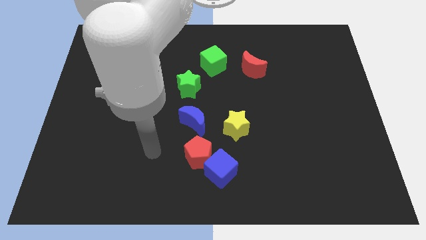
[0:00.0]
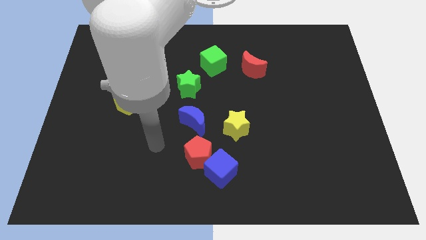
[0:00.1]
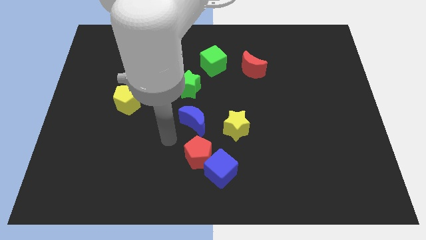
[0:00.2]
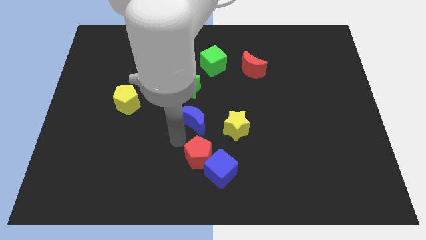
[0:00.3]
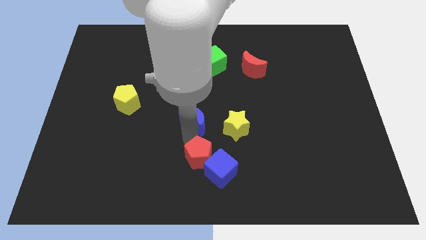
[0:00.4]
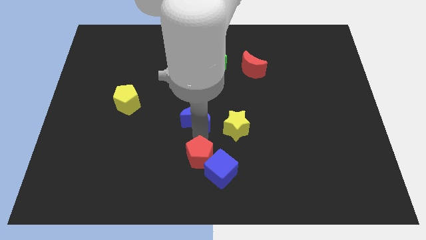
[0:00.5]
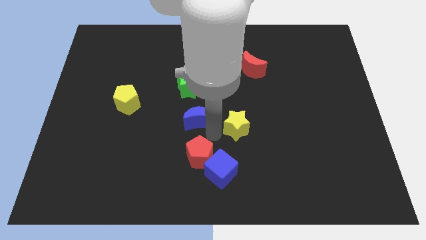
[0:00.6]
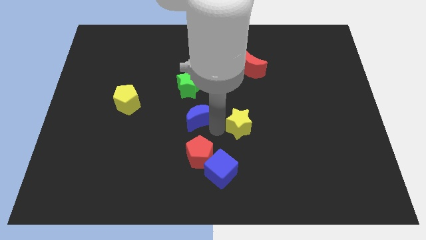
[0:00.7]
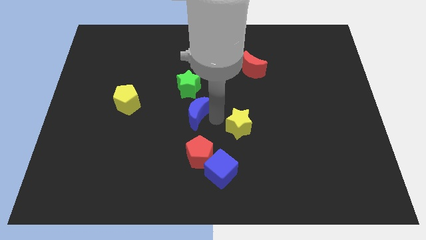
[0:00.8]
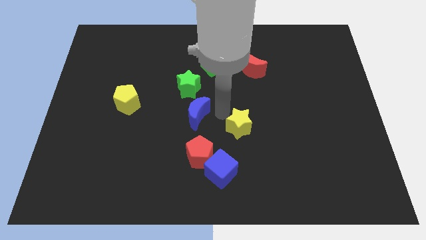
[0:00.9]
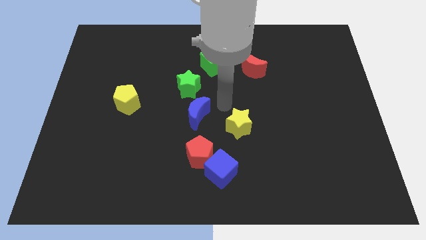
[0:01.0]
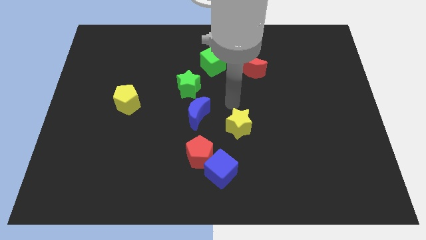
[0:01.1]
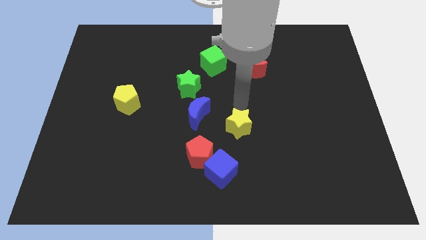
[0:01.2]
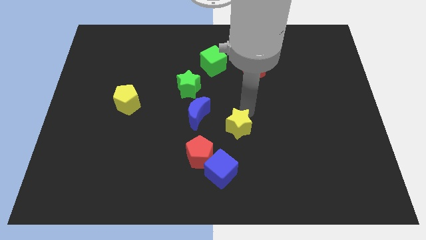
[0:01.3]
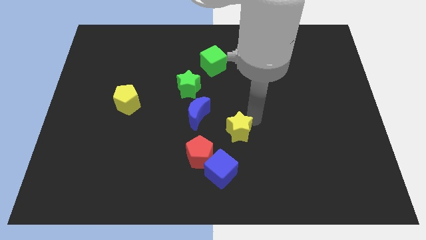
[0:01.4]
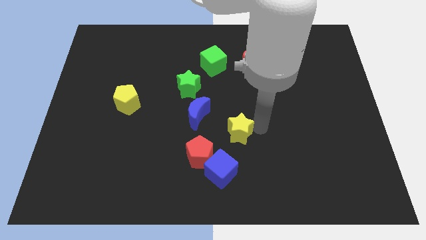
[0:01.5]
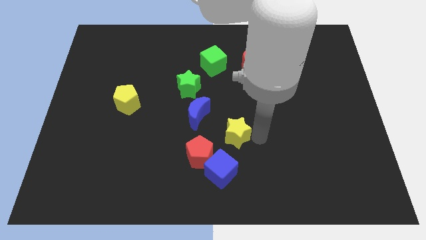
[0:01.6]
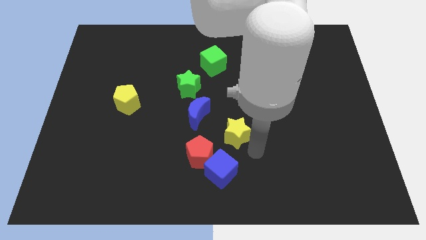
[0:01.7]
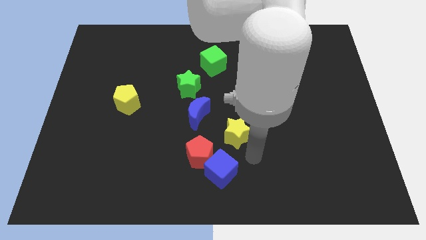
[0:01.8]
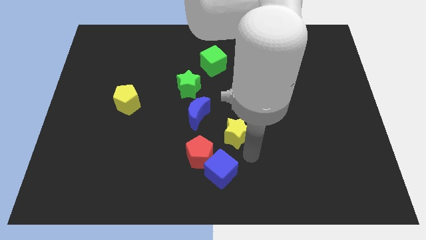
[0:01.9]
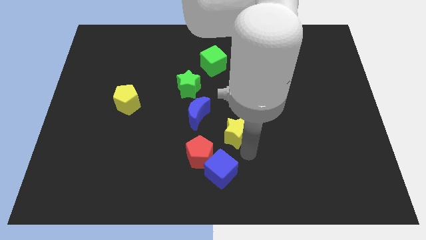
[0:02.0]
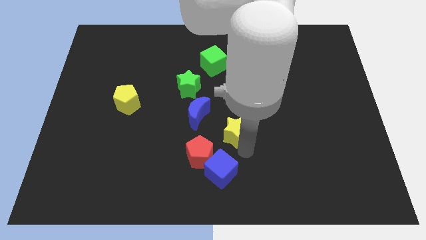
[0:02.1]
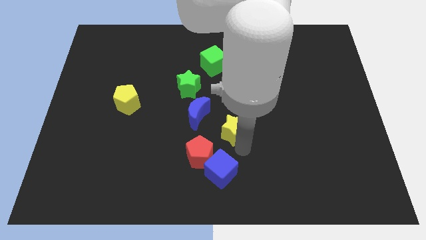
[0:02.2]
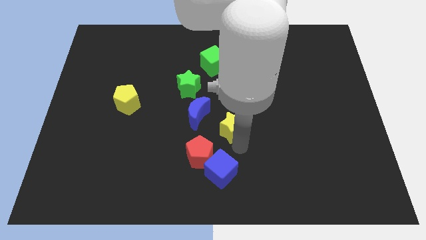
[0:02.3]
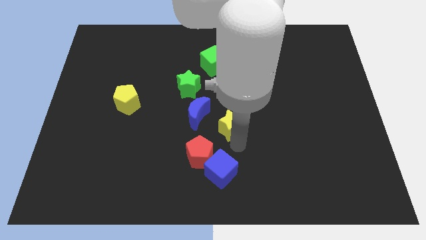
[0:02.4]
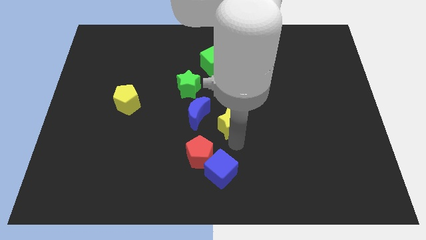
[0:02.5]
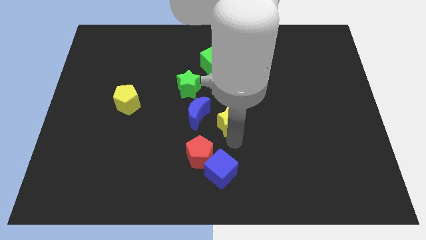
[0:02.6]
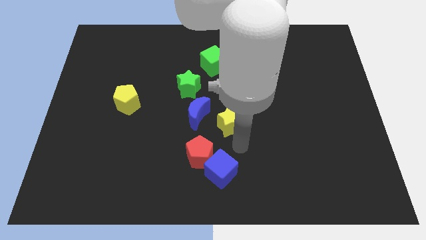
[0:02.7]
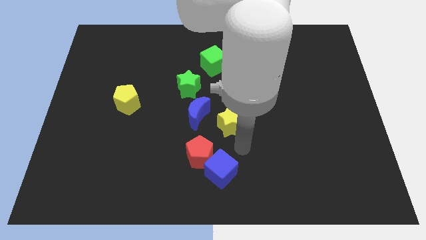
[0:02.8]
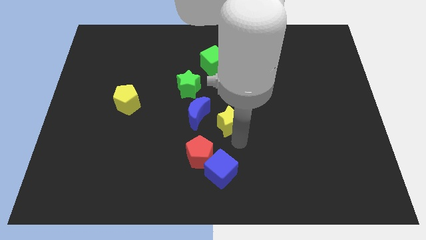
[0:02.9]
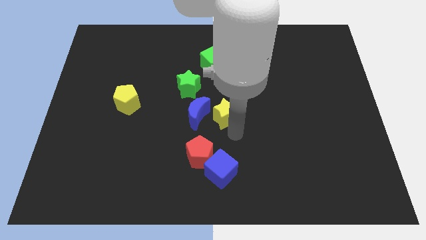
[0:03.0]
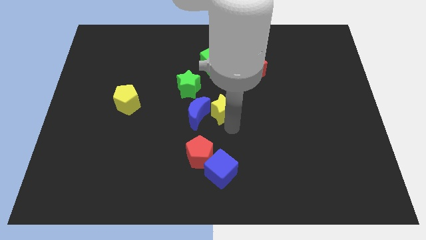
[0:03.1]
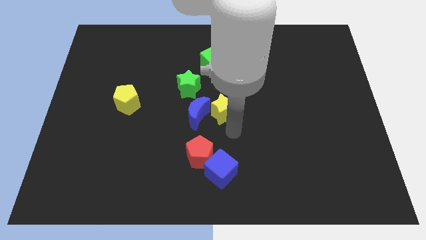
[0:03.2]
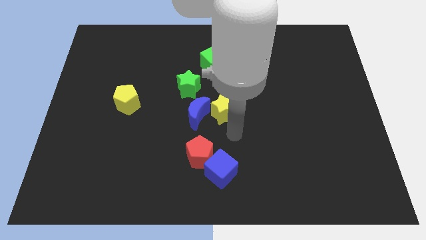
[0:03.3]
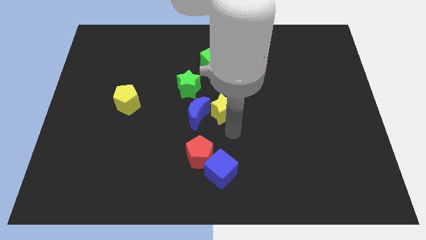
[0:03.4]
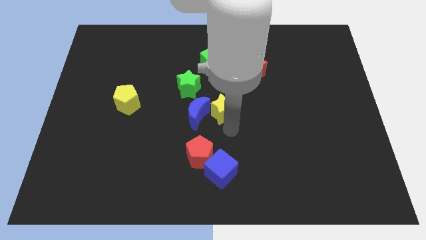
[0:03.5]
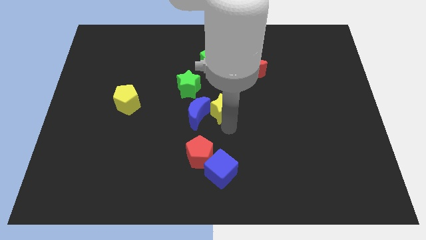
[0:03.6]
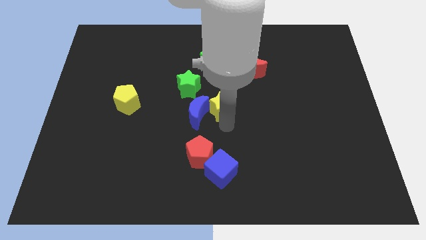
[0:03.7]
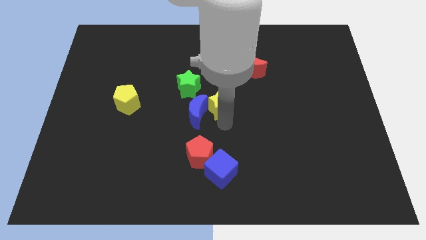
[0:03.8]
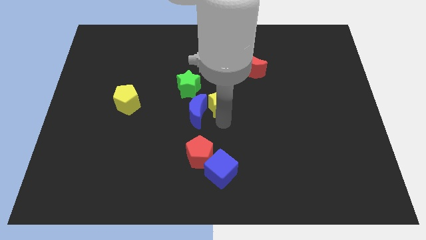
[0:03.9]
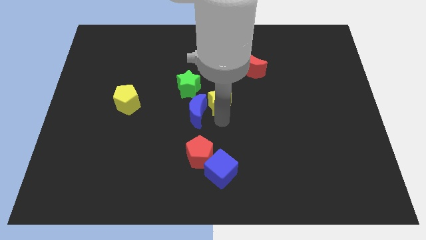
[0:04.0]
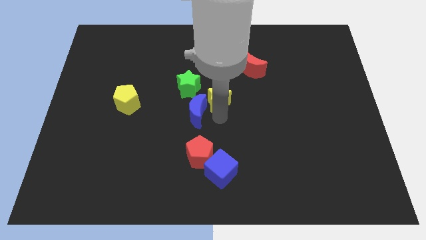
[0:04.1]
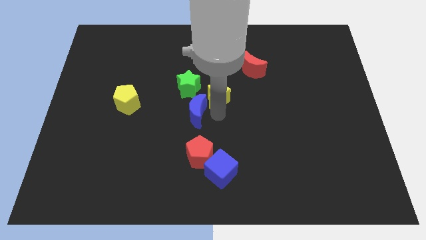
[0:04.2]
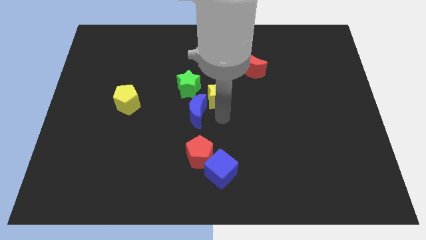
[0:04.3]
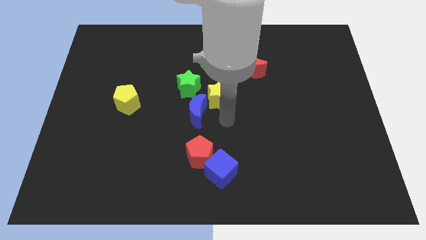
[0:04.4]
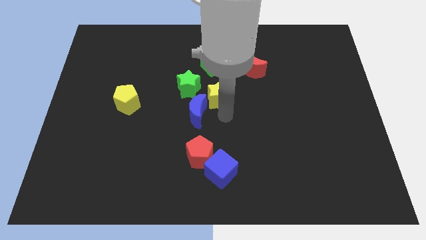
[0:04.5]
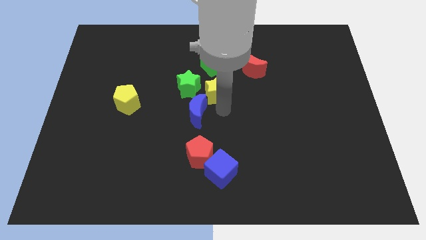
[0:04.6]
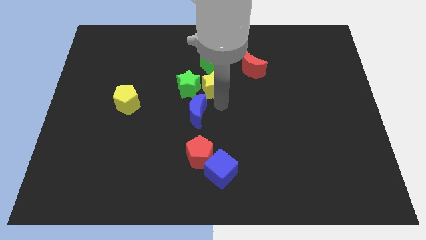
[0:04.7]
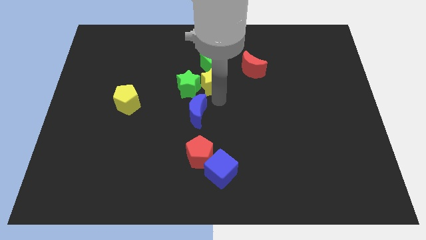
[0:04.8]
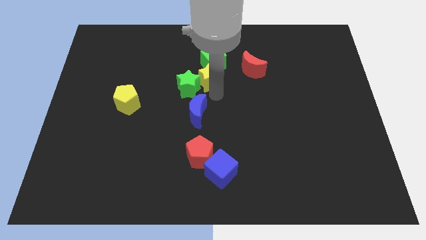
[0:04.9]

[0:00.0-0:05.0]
put the yellow star next to the green cube
